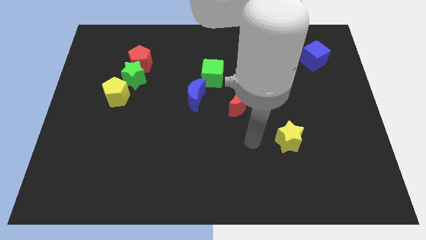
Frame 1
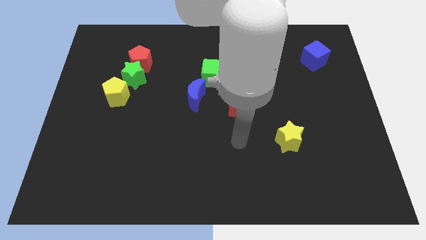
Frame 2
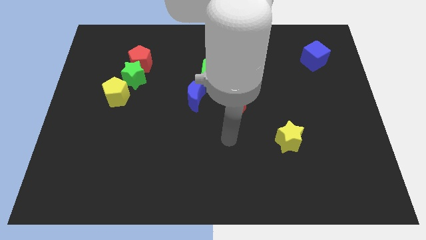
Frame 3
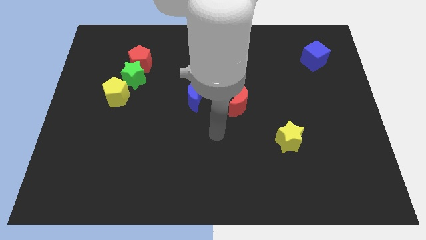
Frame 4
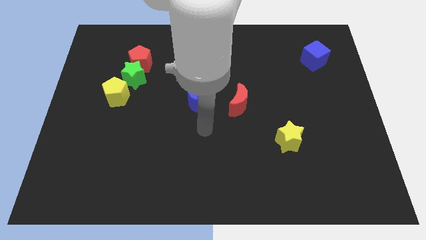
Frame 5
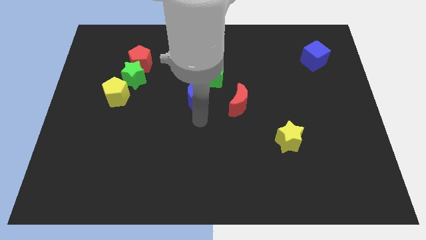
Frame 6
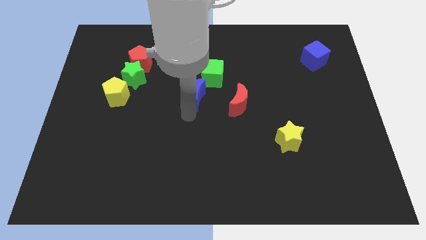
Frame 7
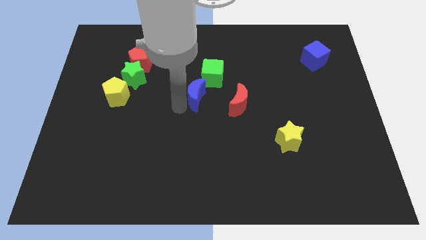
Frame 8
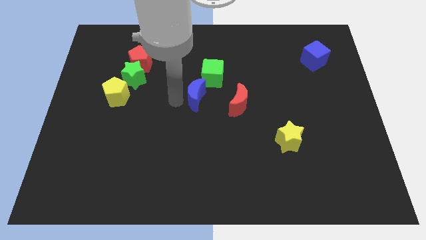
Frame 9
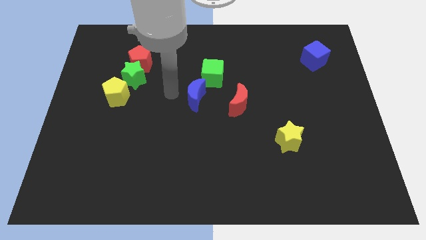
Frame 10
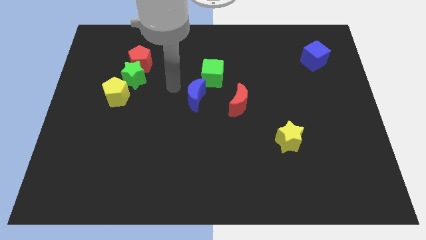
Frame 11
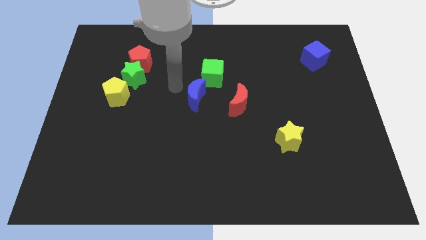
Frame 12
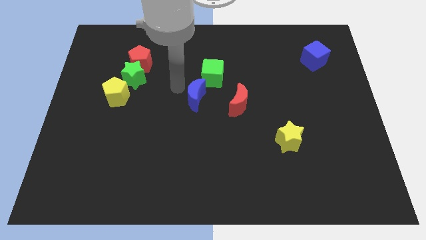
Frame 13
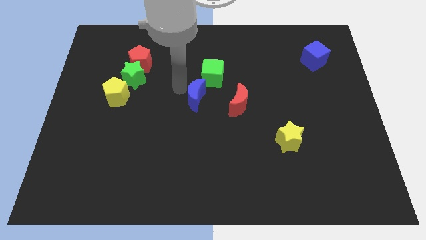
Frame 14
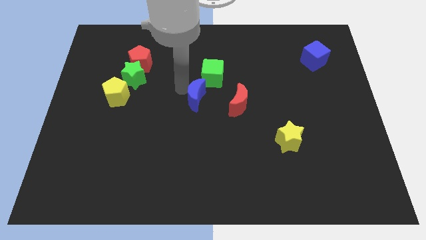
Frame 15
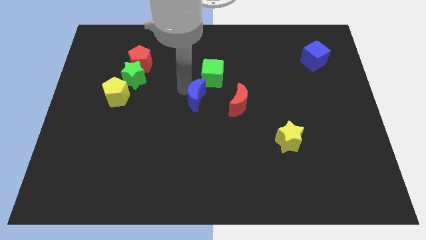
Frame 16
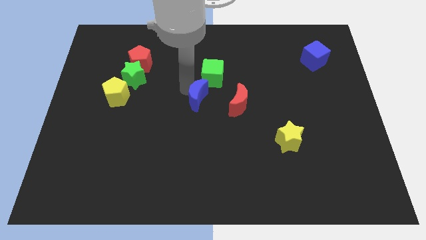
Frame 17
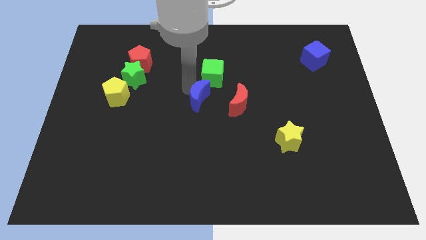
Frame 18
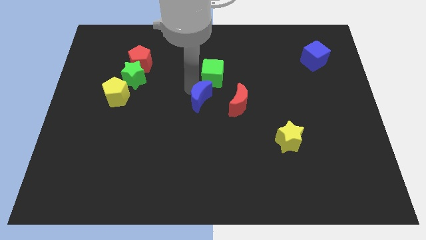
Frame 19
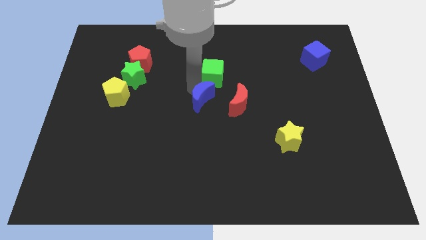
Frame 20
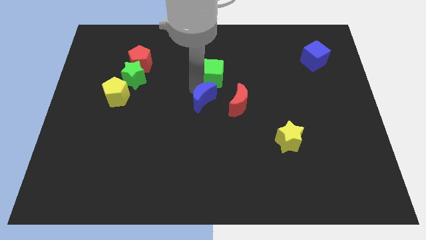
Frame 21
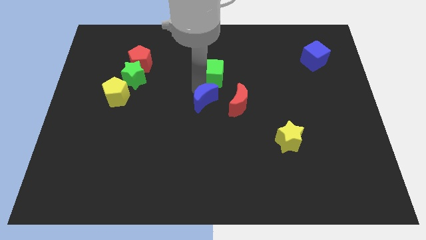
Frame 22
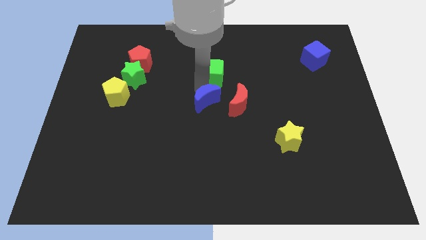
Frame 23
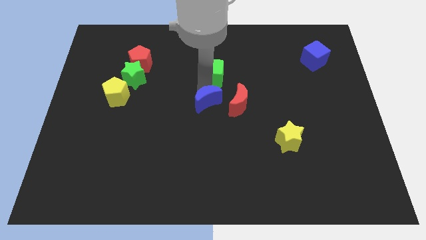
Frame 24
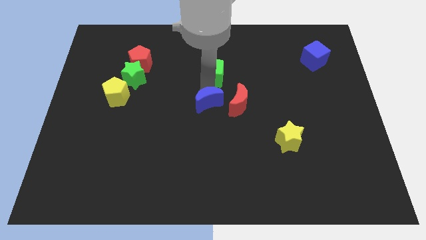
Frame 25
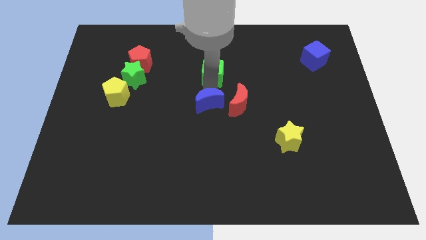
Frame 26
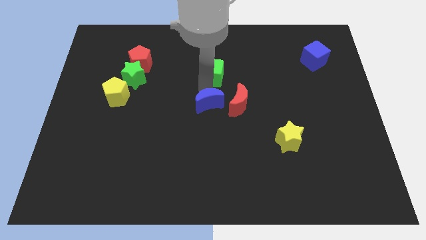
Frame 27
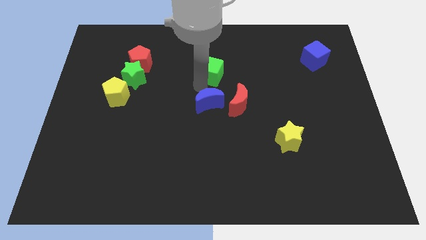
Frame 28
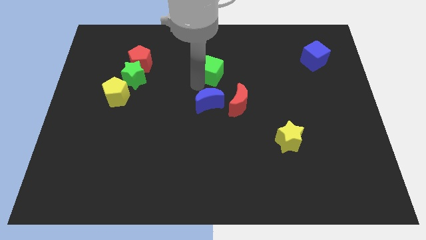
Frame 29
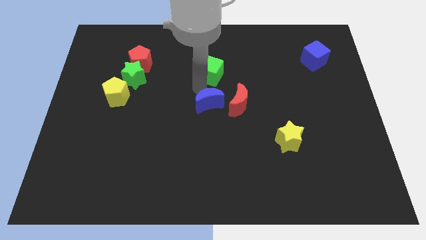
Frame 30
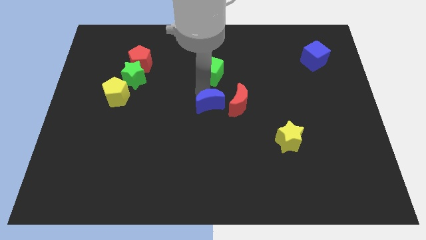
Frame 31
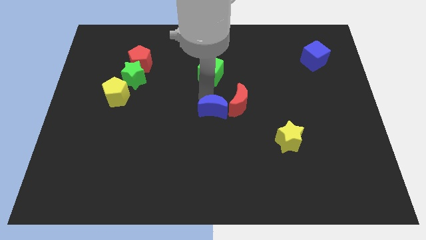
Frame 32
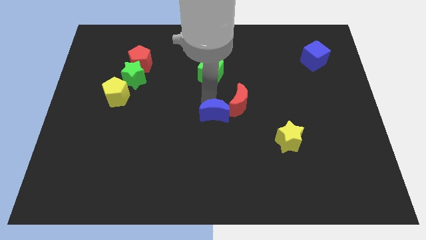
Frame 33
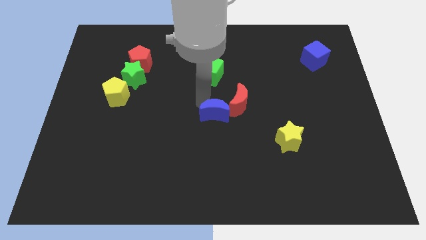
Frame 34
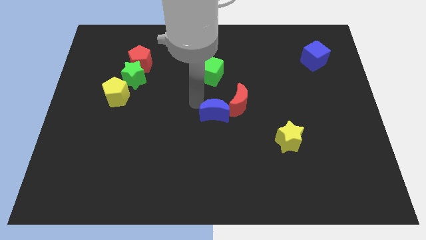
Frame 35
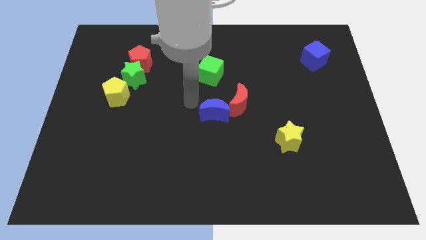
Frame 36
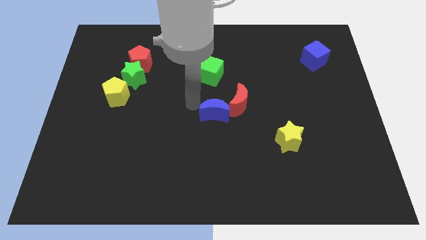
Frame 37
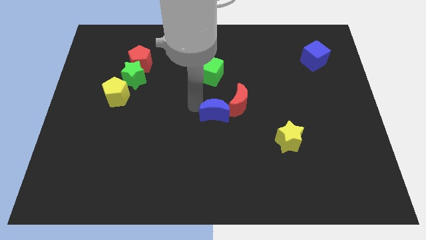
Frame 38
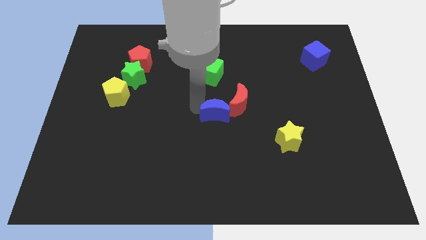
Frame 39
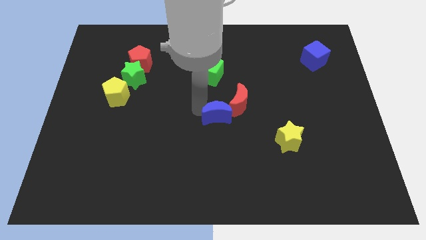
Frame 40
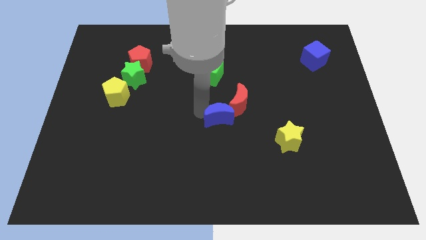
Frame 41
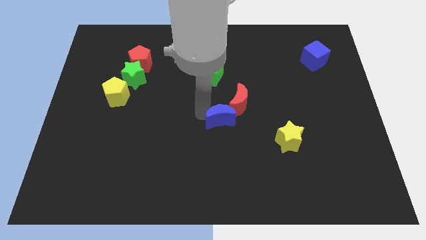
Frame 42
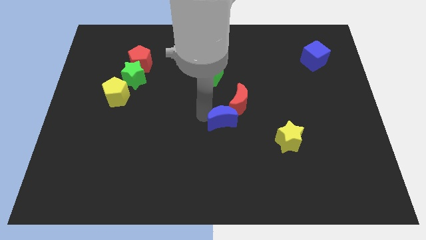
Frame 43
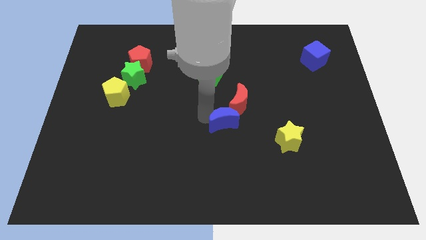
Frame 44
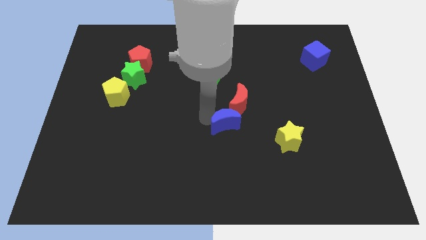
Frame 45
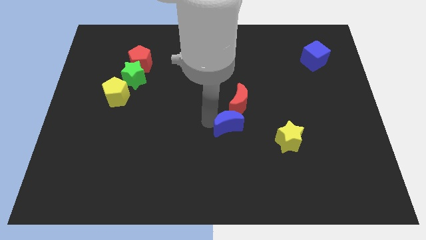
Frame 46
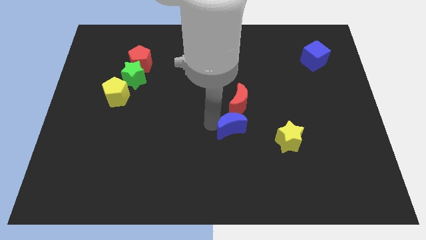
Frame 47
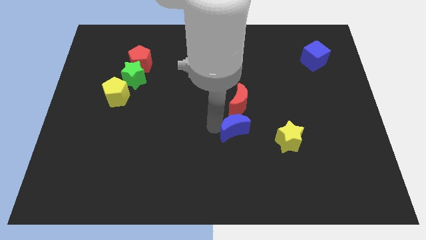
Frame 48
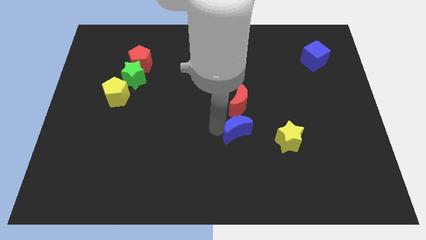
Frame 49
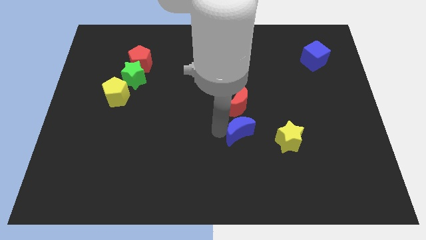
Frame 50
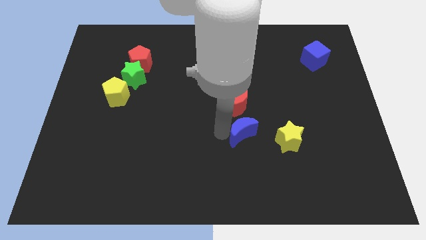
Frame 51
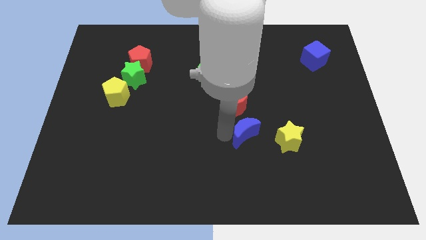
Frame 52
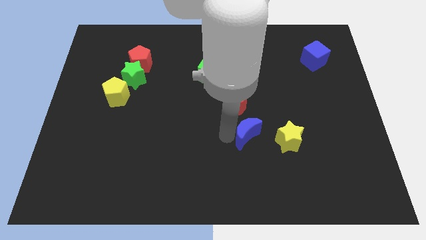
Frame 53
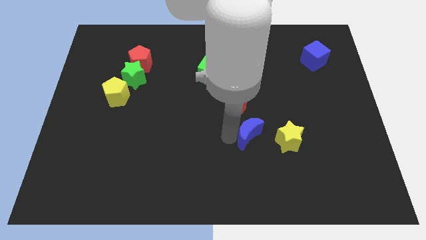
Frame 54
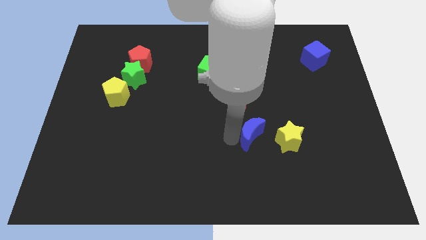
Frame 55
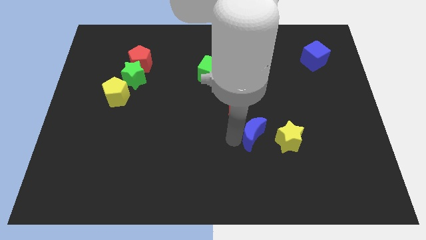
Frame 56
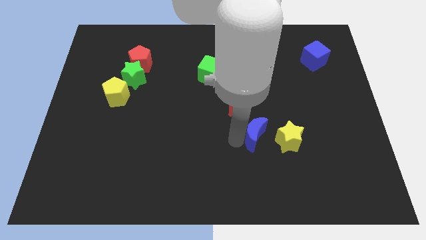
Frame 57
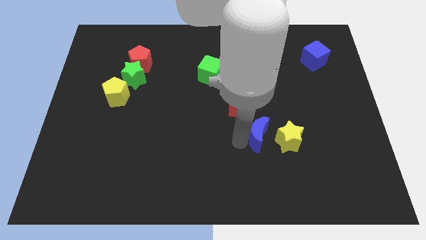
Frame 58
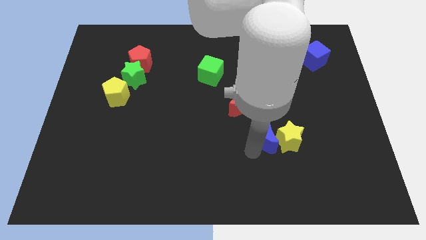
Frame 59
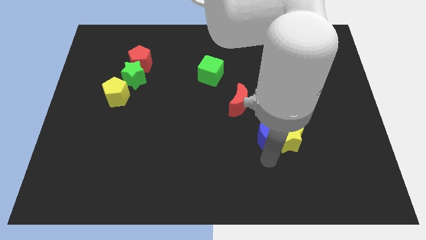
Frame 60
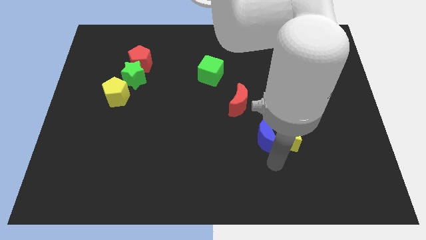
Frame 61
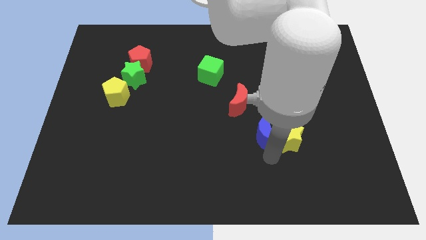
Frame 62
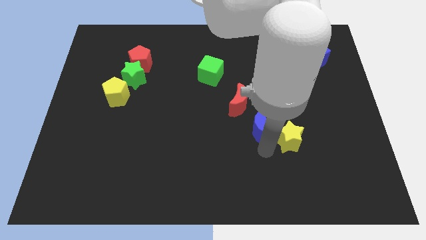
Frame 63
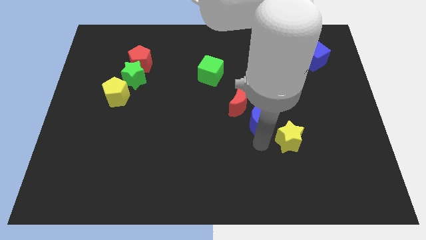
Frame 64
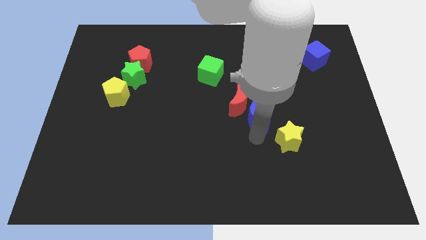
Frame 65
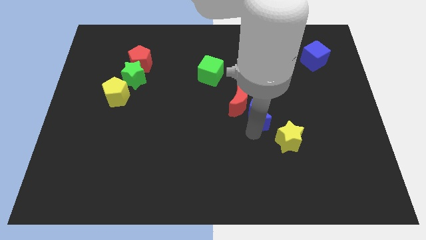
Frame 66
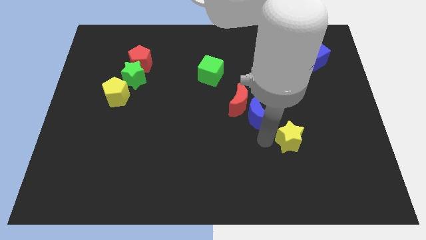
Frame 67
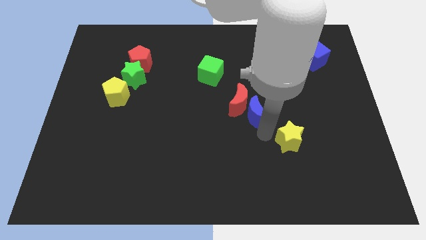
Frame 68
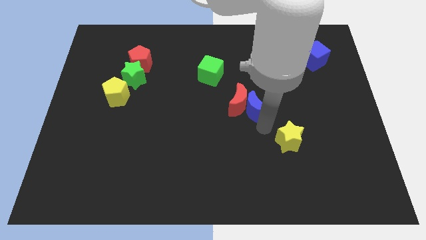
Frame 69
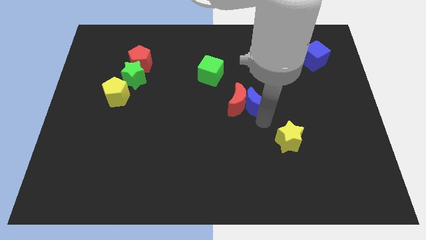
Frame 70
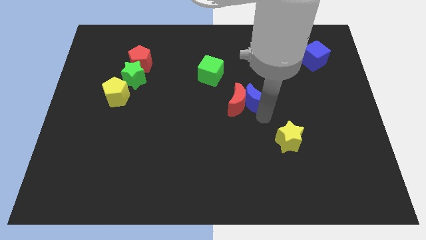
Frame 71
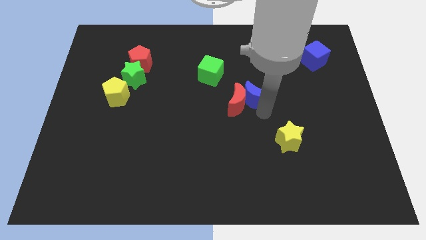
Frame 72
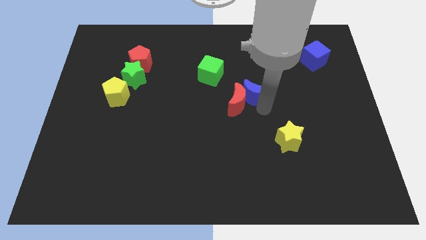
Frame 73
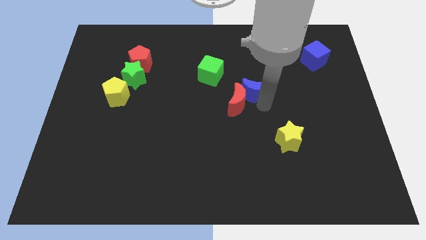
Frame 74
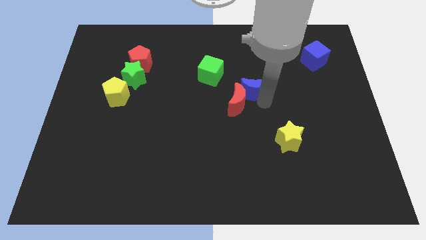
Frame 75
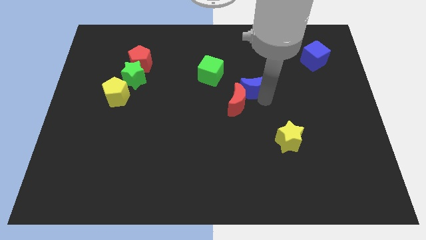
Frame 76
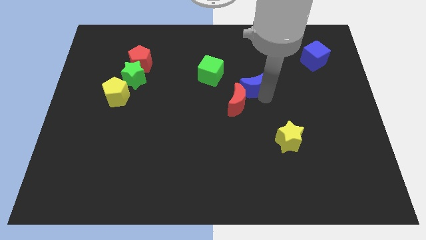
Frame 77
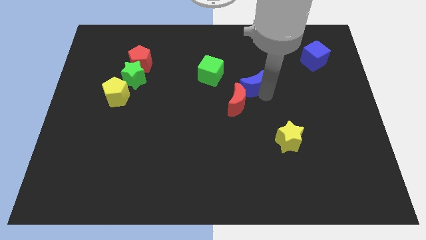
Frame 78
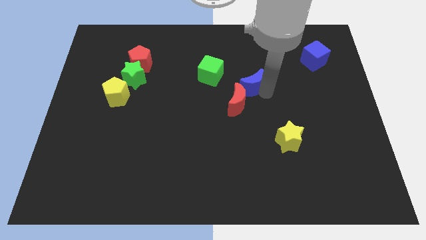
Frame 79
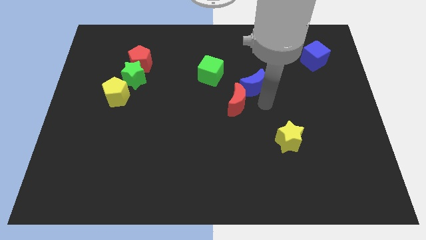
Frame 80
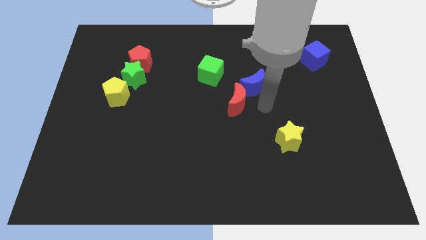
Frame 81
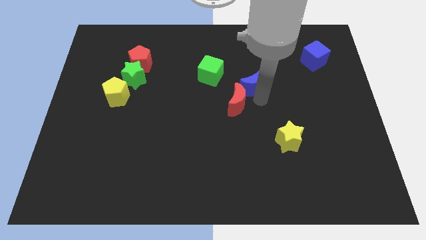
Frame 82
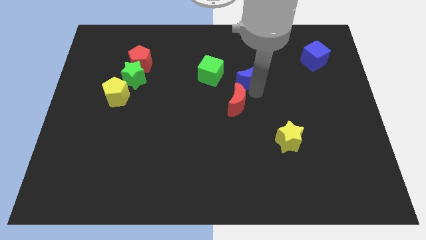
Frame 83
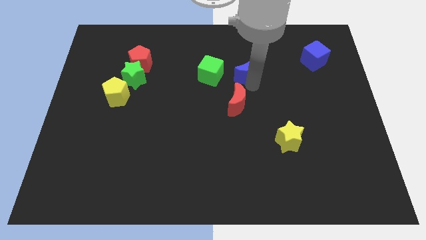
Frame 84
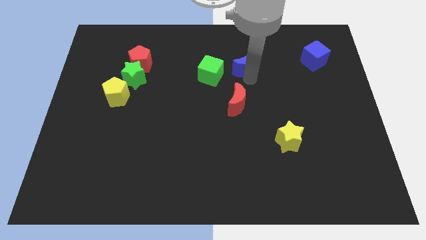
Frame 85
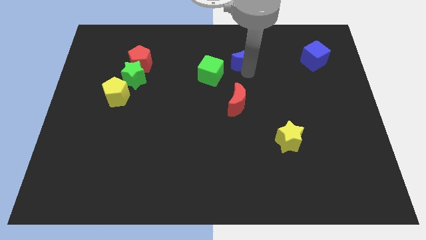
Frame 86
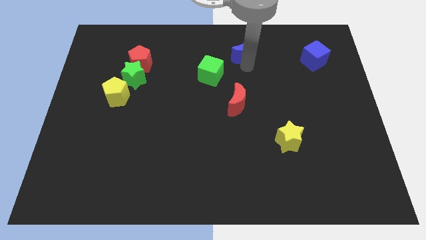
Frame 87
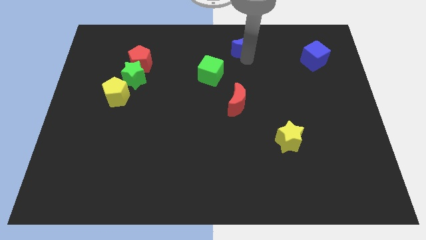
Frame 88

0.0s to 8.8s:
put the blue moon to the top side
